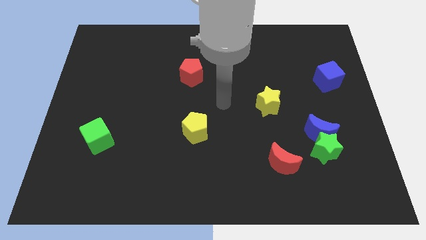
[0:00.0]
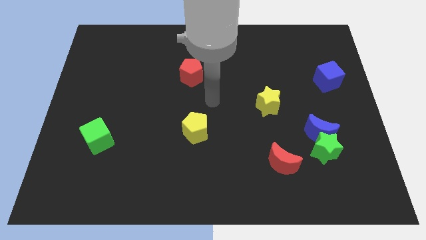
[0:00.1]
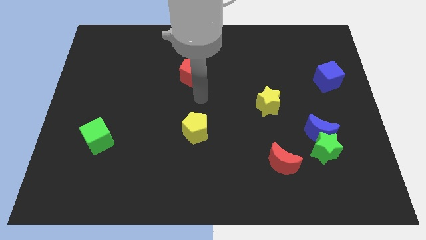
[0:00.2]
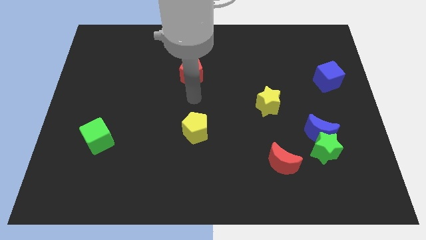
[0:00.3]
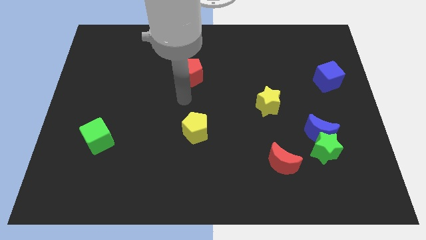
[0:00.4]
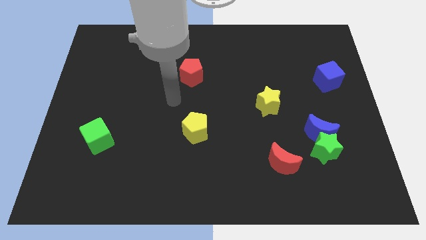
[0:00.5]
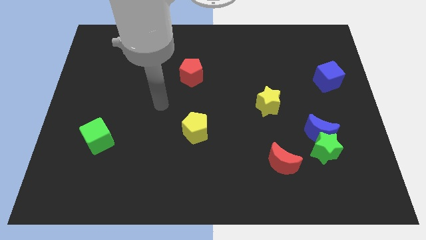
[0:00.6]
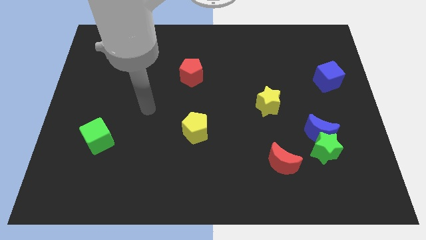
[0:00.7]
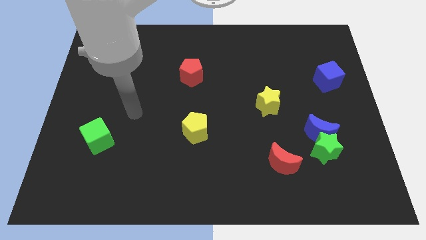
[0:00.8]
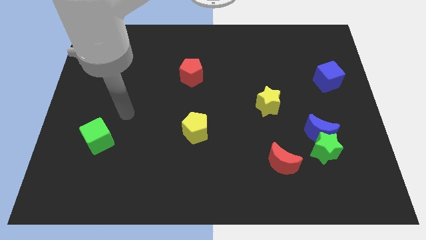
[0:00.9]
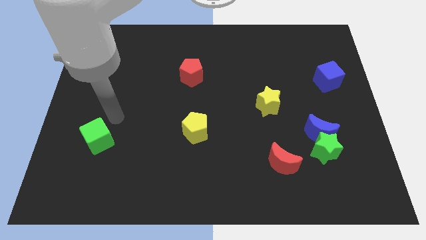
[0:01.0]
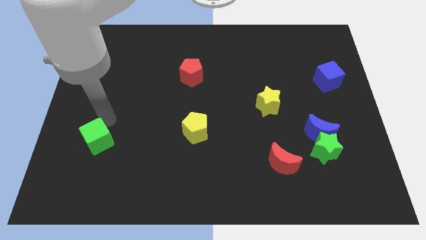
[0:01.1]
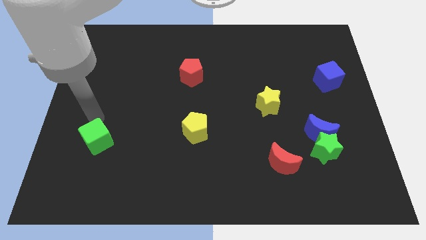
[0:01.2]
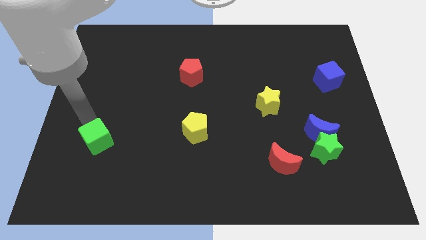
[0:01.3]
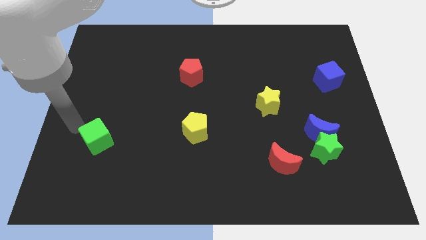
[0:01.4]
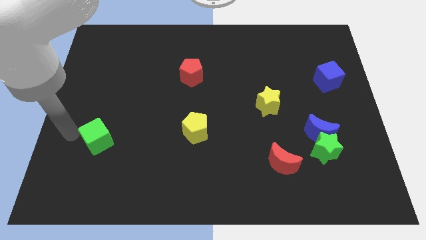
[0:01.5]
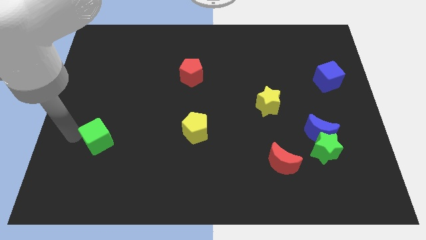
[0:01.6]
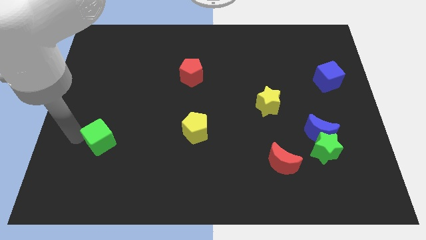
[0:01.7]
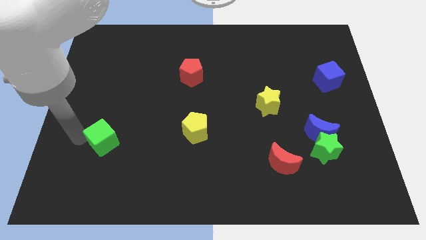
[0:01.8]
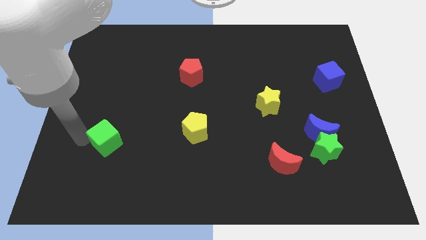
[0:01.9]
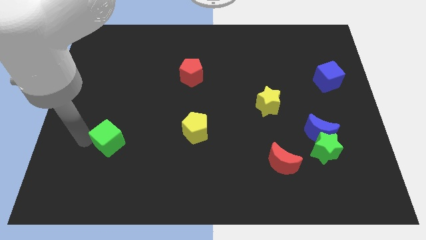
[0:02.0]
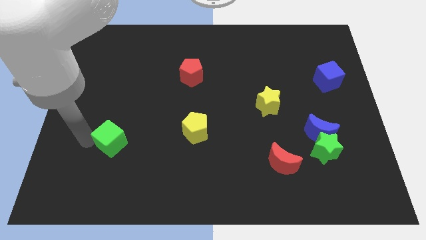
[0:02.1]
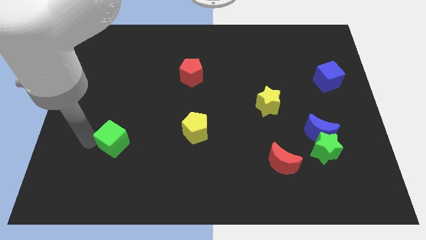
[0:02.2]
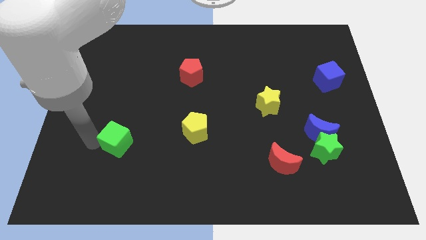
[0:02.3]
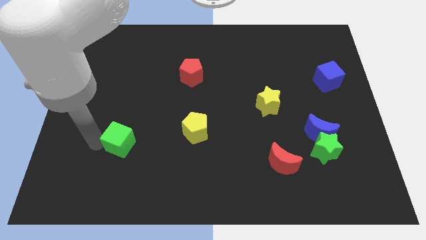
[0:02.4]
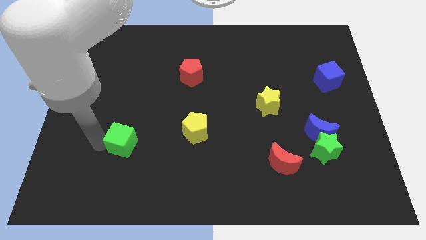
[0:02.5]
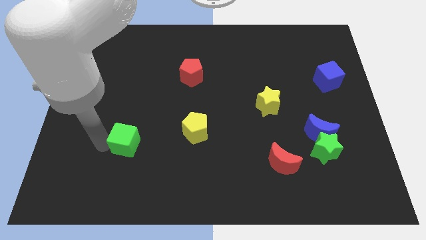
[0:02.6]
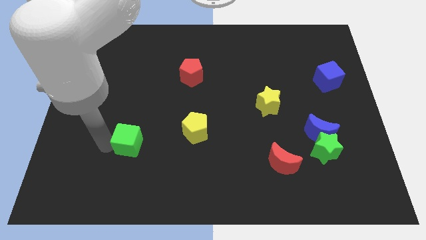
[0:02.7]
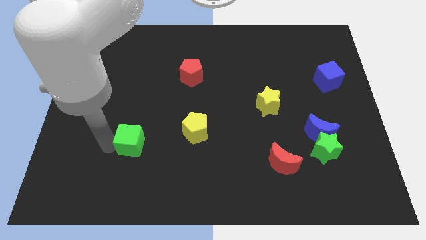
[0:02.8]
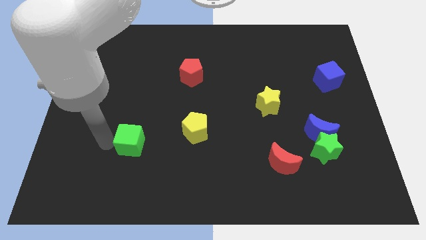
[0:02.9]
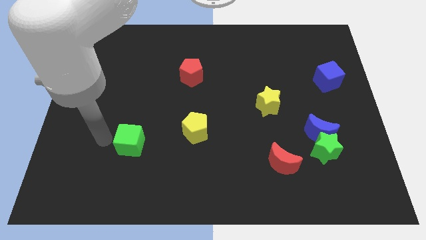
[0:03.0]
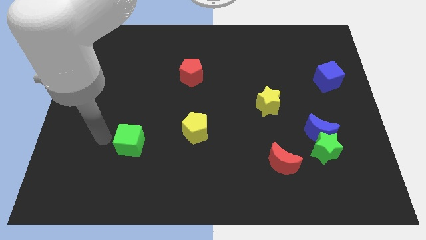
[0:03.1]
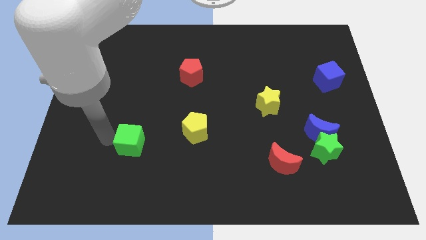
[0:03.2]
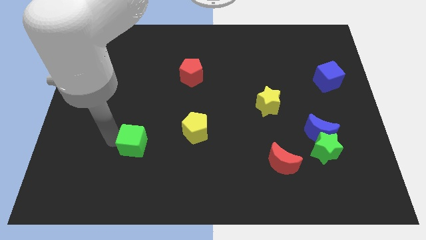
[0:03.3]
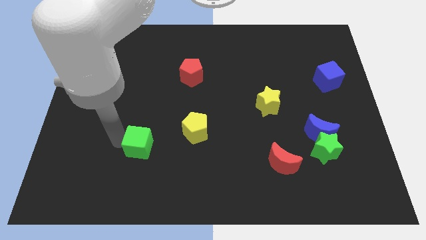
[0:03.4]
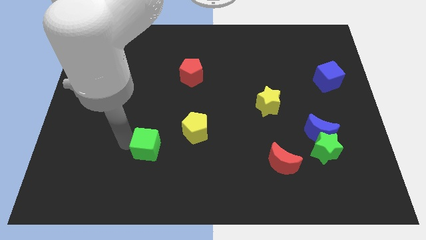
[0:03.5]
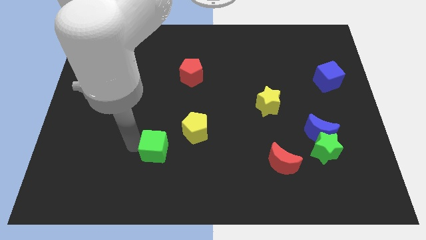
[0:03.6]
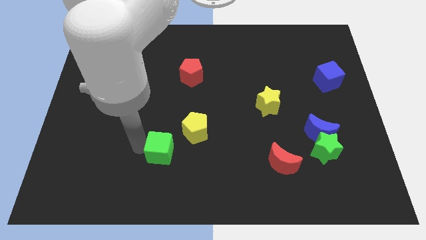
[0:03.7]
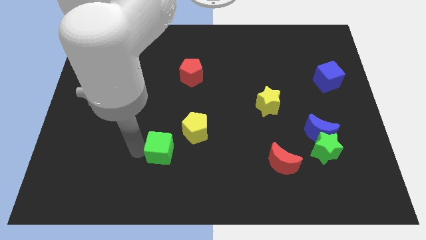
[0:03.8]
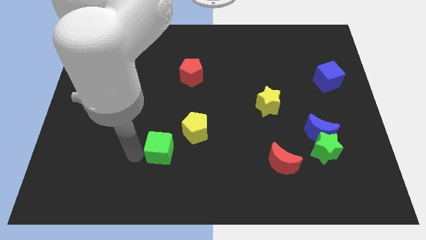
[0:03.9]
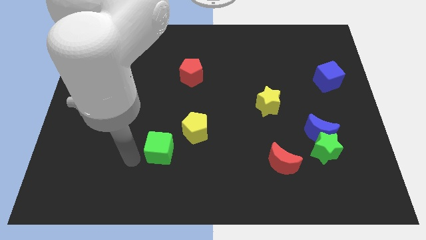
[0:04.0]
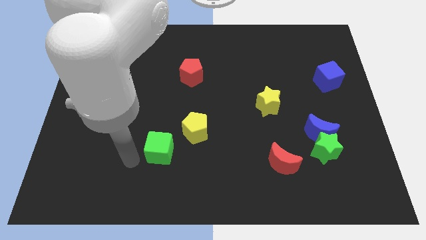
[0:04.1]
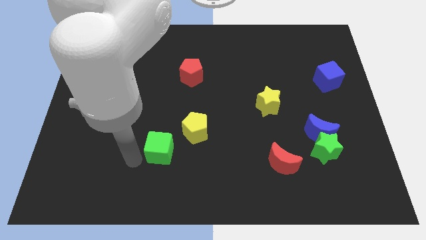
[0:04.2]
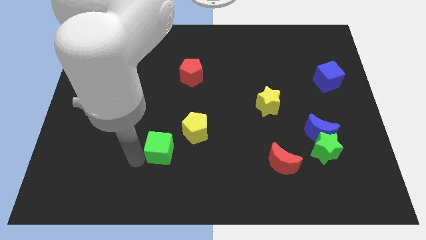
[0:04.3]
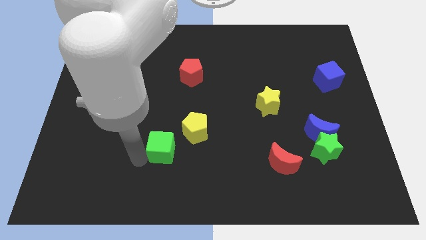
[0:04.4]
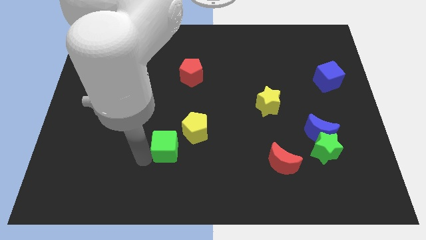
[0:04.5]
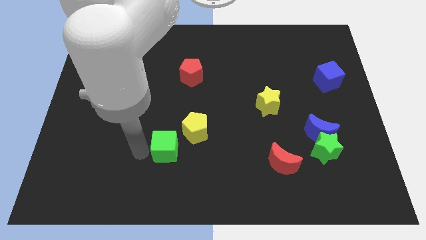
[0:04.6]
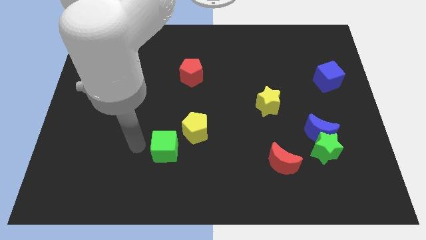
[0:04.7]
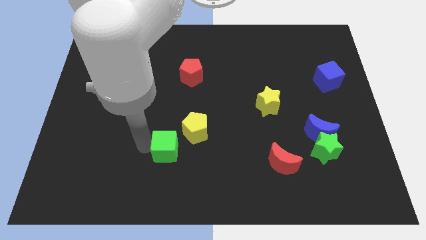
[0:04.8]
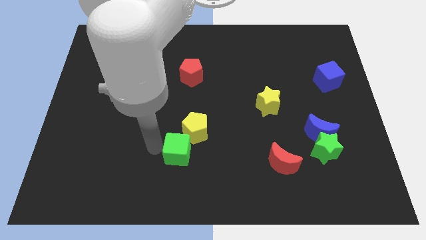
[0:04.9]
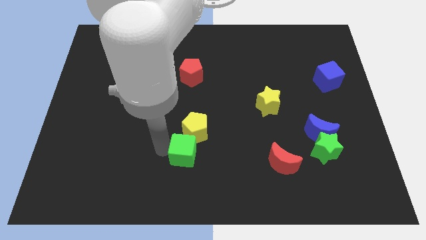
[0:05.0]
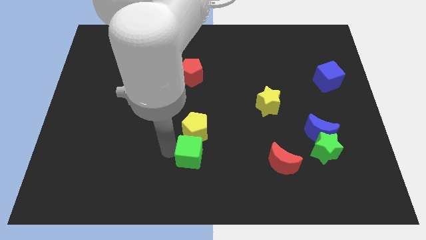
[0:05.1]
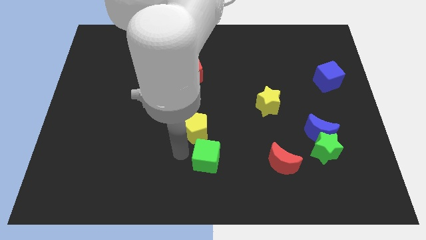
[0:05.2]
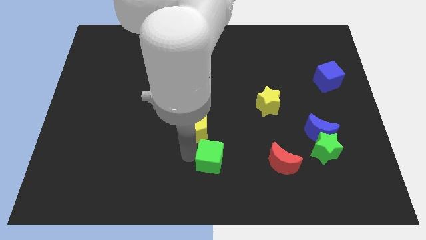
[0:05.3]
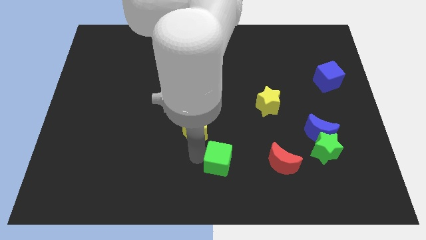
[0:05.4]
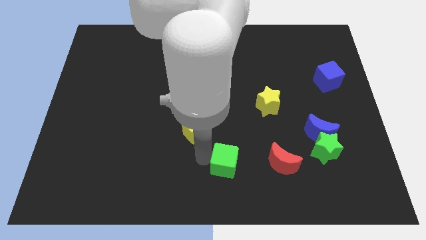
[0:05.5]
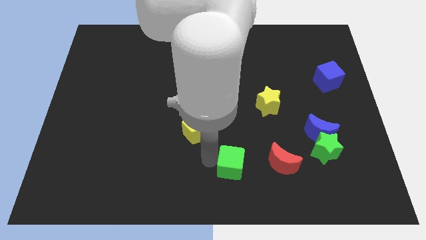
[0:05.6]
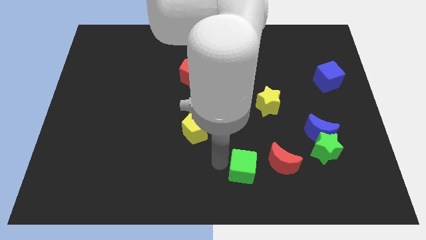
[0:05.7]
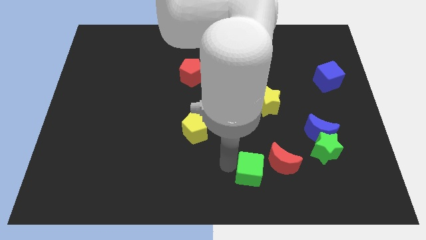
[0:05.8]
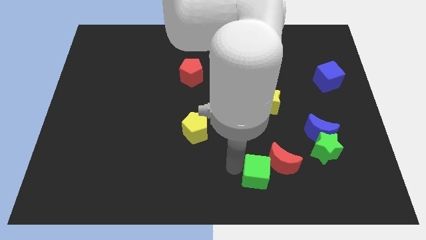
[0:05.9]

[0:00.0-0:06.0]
move the green cube to the red moon

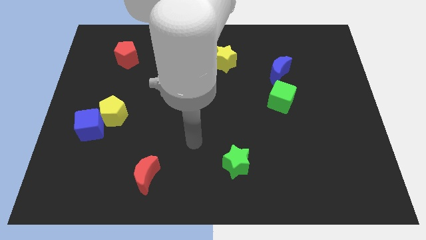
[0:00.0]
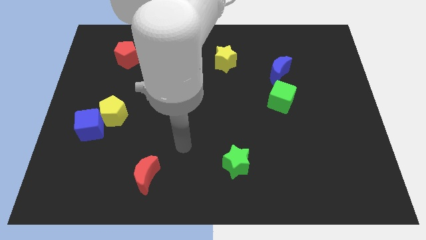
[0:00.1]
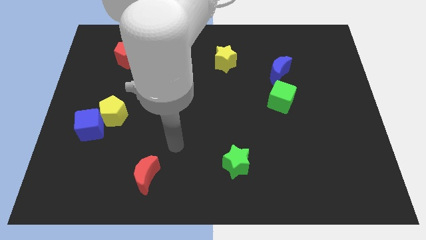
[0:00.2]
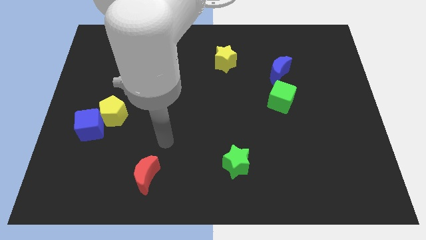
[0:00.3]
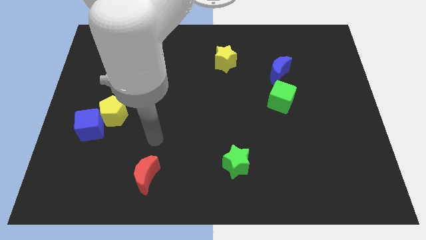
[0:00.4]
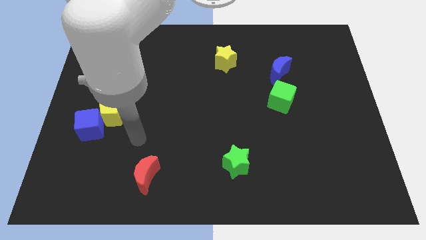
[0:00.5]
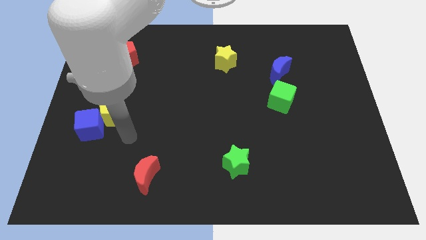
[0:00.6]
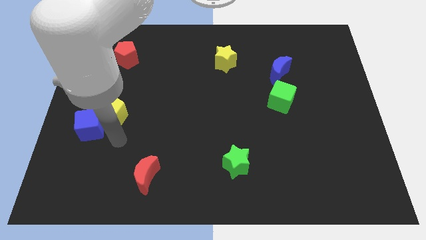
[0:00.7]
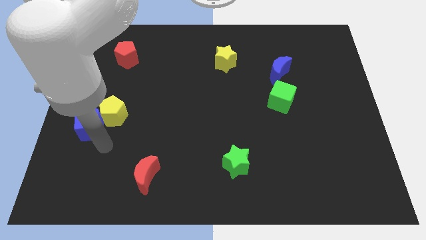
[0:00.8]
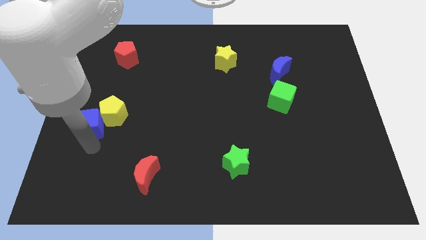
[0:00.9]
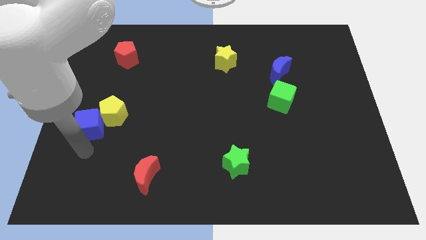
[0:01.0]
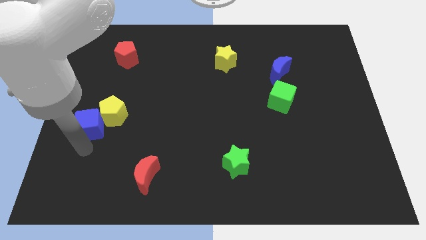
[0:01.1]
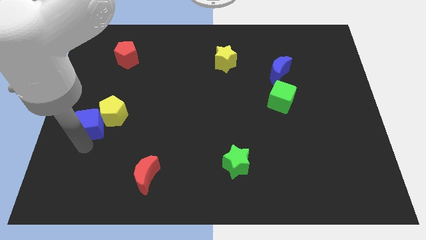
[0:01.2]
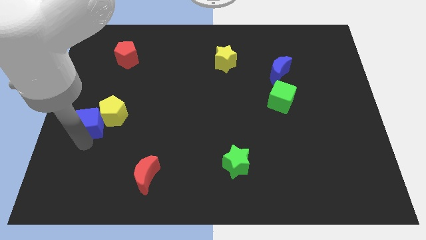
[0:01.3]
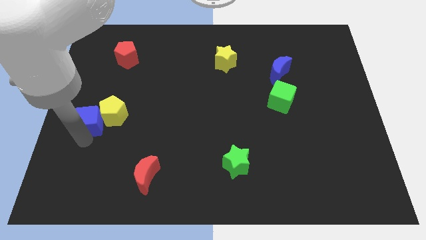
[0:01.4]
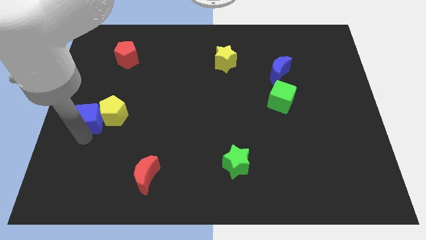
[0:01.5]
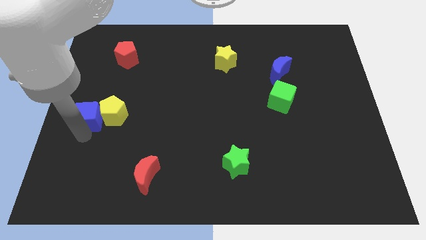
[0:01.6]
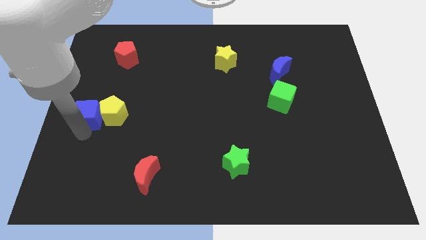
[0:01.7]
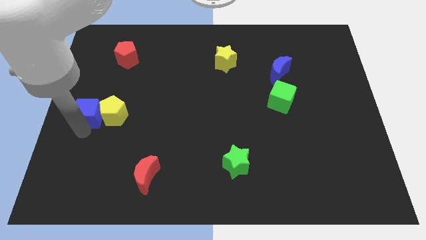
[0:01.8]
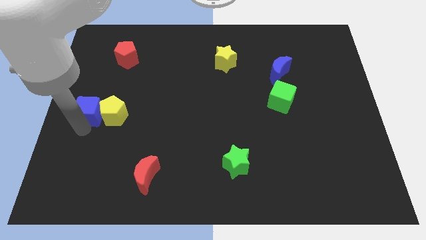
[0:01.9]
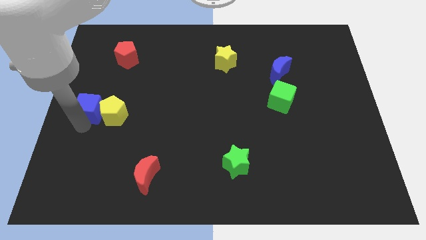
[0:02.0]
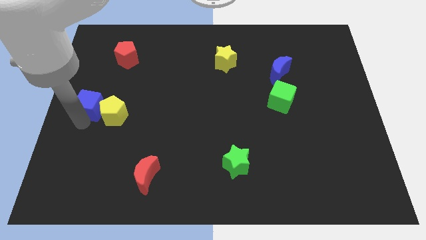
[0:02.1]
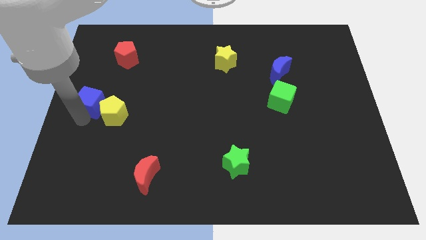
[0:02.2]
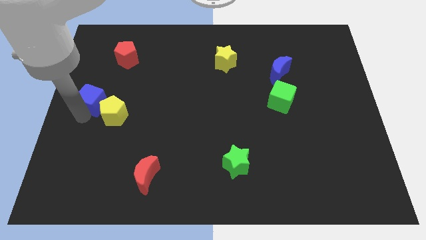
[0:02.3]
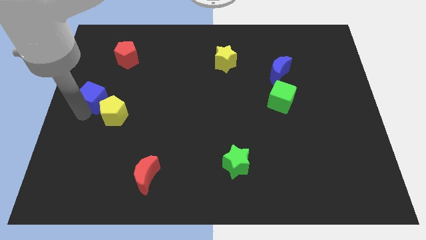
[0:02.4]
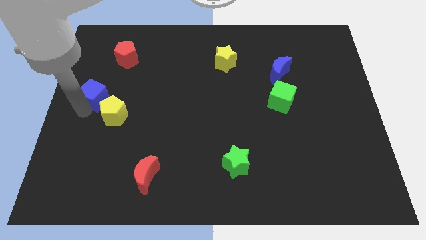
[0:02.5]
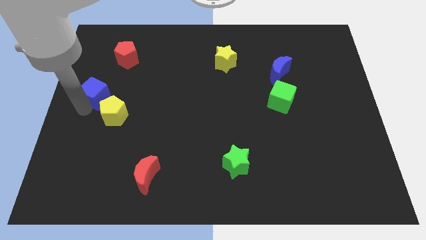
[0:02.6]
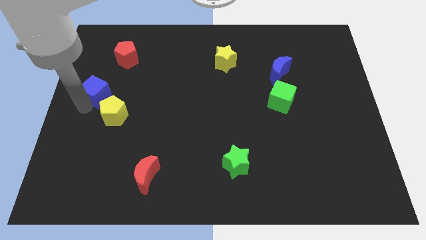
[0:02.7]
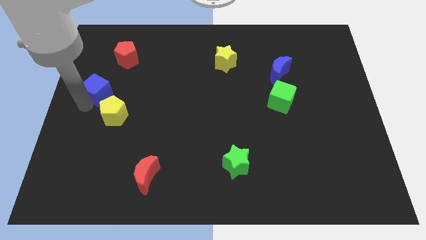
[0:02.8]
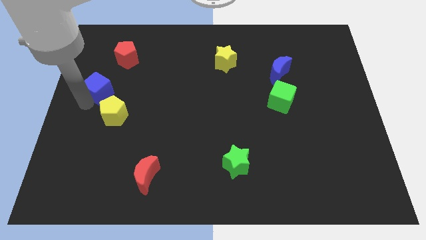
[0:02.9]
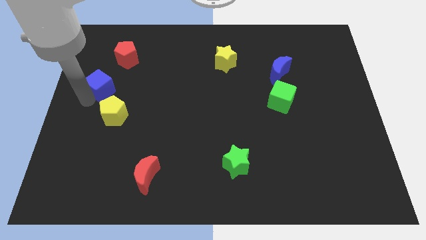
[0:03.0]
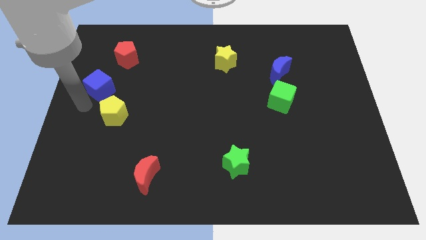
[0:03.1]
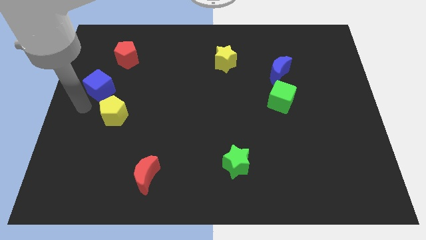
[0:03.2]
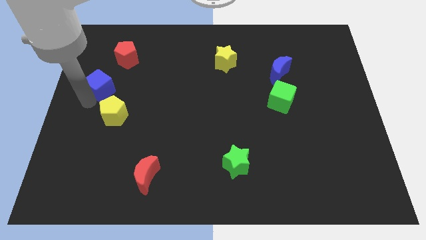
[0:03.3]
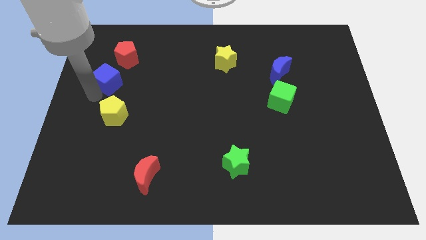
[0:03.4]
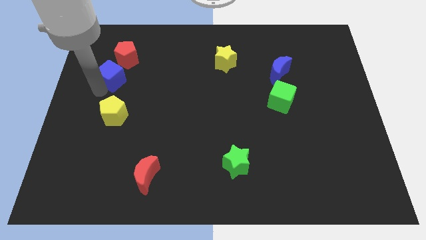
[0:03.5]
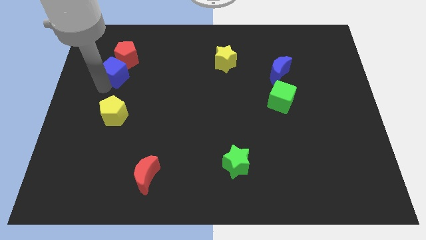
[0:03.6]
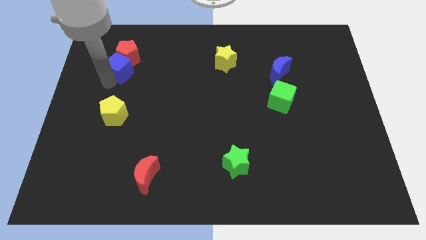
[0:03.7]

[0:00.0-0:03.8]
put the blue cube towards the red pentagon
